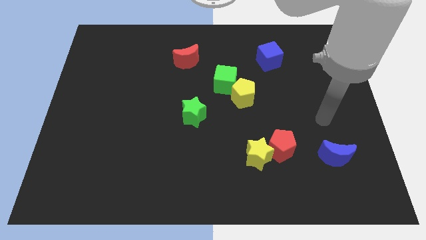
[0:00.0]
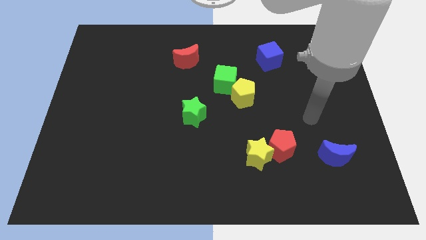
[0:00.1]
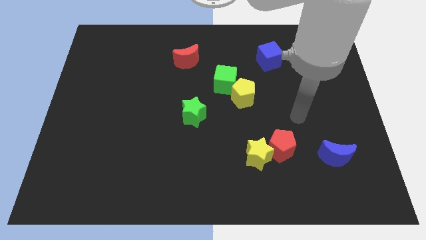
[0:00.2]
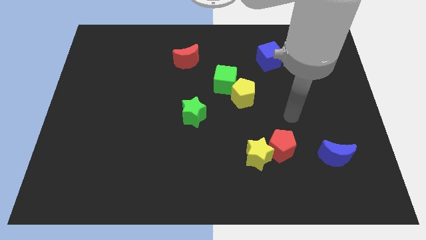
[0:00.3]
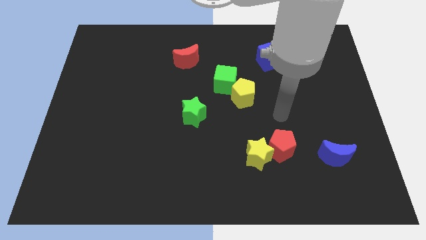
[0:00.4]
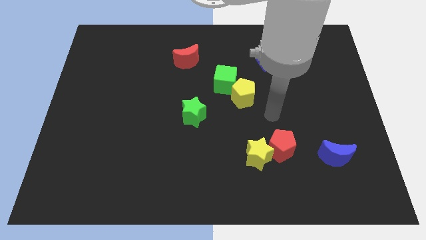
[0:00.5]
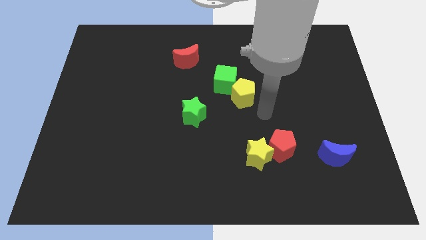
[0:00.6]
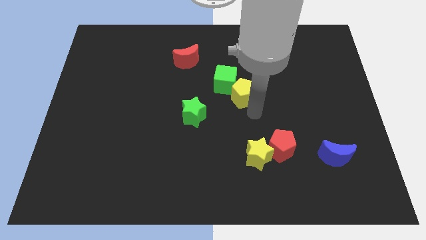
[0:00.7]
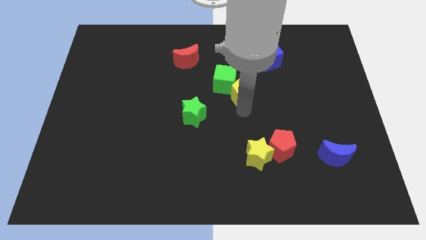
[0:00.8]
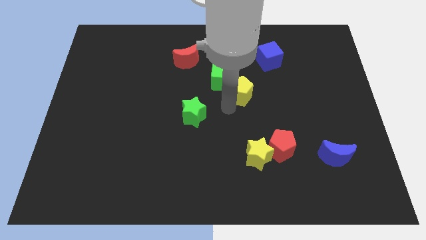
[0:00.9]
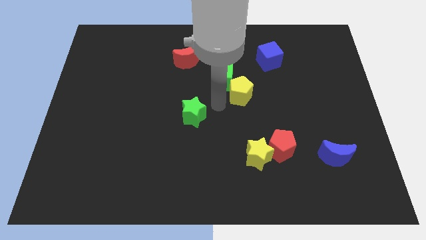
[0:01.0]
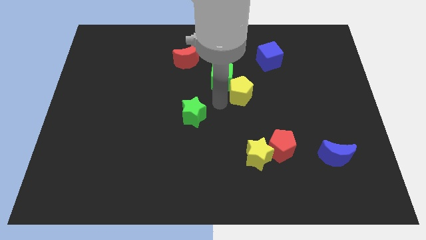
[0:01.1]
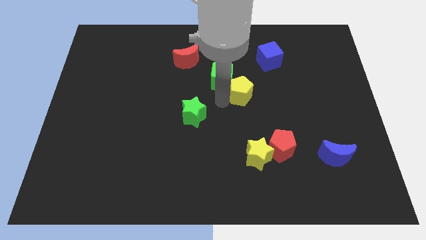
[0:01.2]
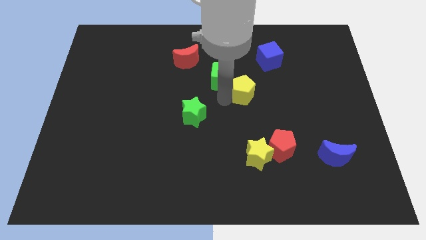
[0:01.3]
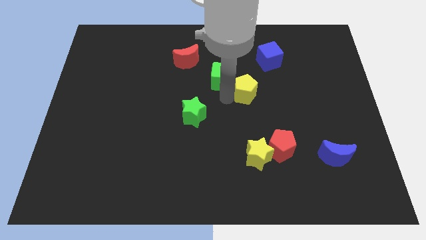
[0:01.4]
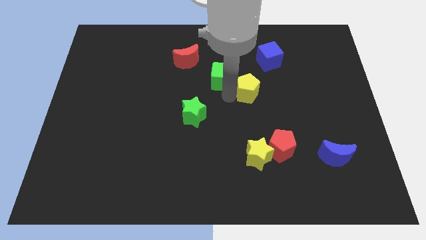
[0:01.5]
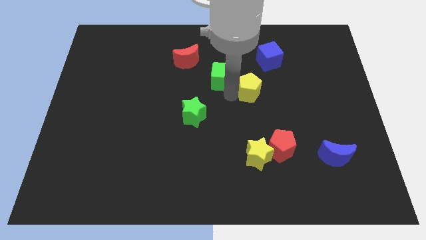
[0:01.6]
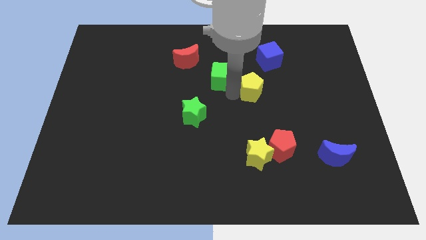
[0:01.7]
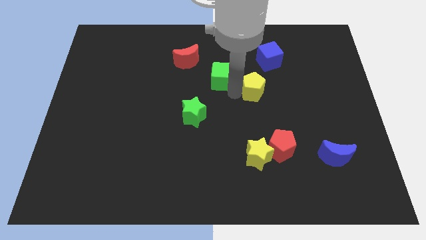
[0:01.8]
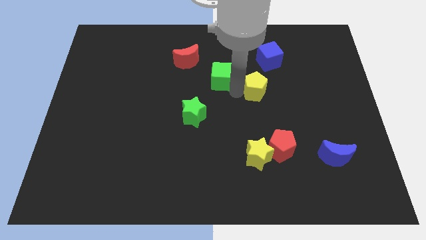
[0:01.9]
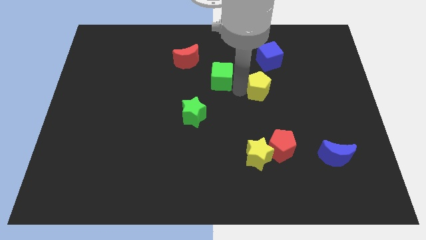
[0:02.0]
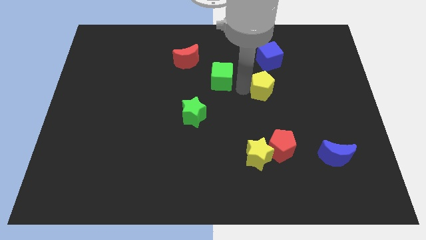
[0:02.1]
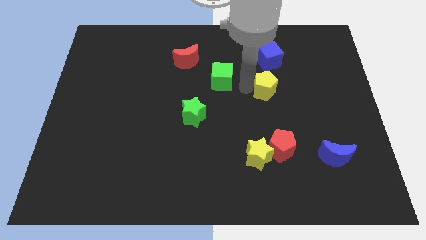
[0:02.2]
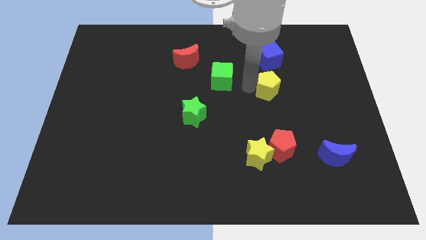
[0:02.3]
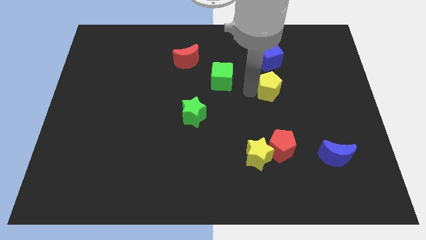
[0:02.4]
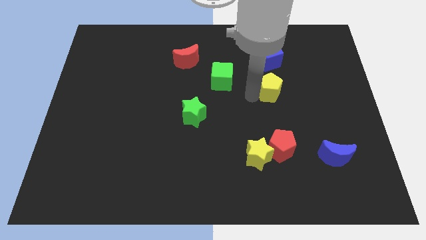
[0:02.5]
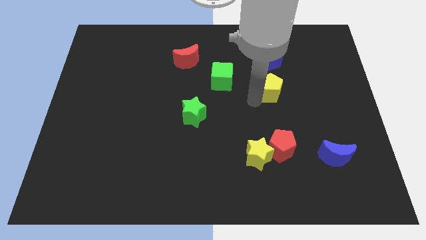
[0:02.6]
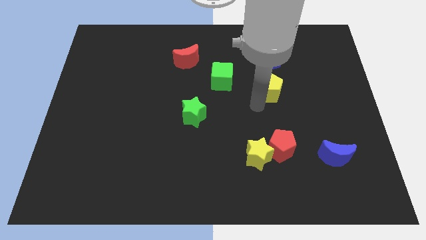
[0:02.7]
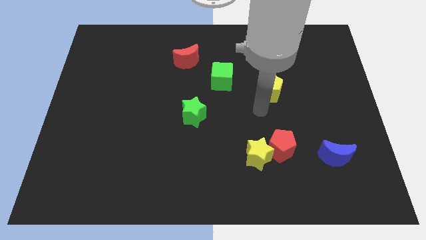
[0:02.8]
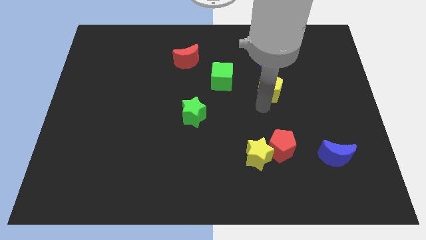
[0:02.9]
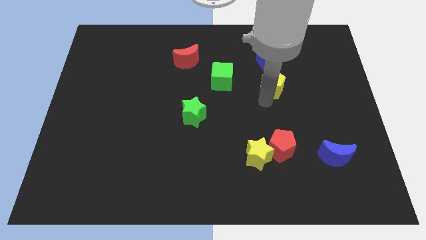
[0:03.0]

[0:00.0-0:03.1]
slide the yellow pentagon a little bit upwards and to the right diagonally

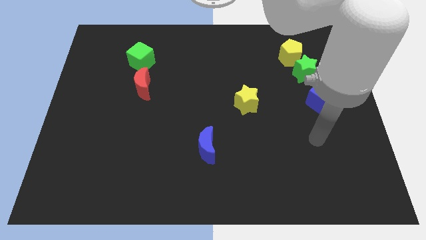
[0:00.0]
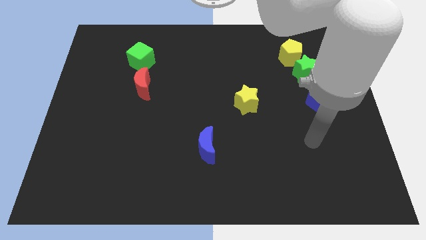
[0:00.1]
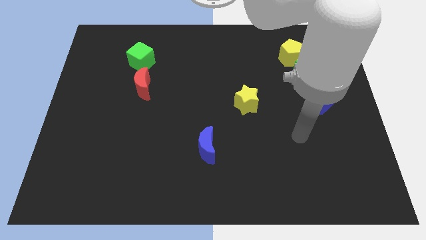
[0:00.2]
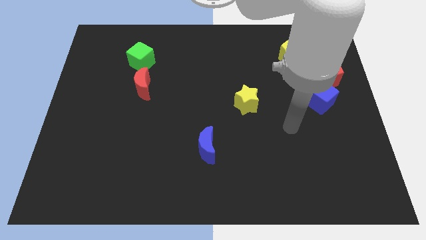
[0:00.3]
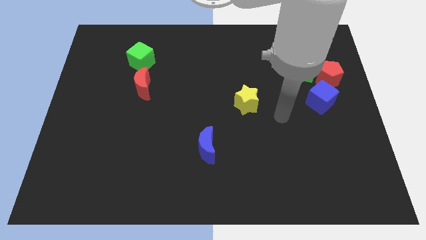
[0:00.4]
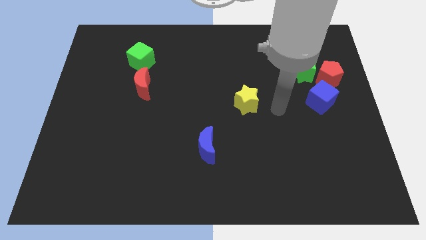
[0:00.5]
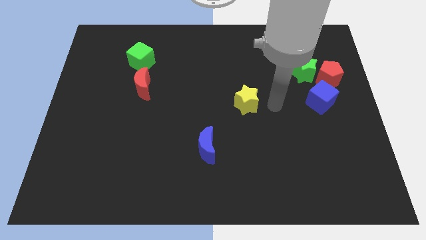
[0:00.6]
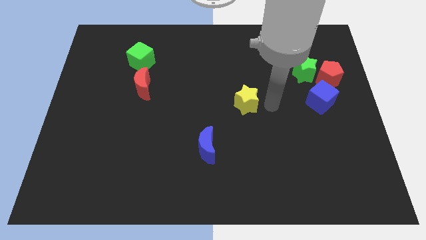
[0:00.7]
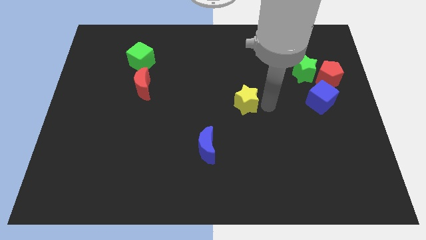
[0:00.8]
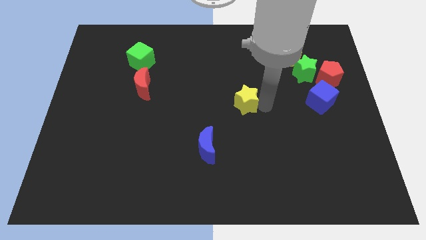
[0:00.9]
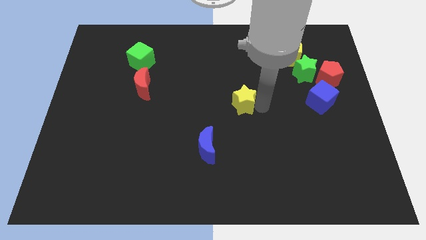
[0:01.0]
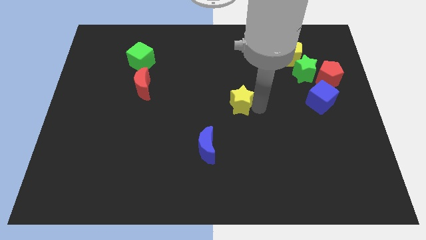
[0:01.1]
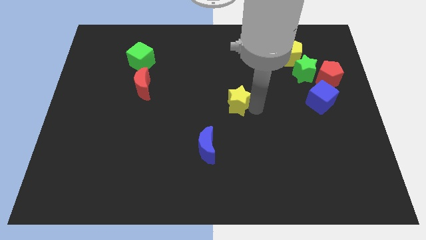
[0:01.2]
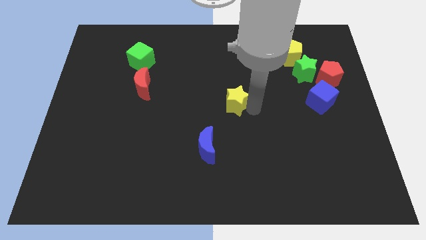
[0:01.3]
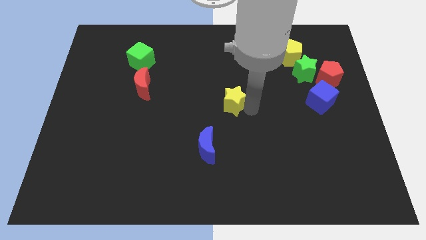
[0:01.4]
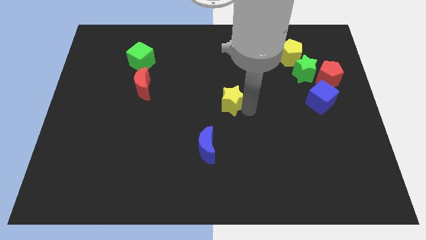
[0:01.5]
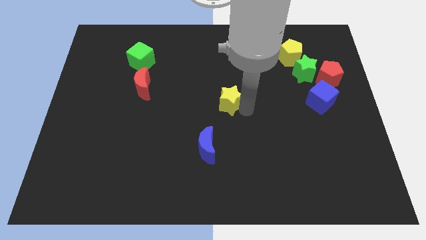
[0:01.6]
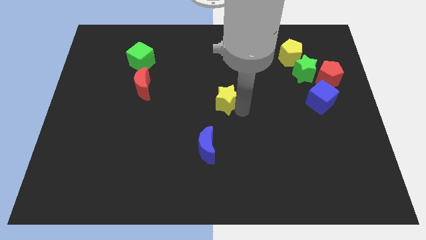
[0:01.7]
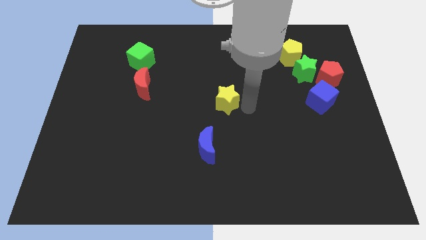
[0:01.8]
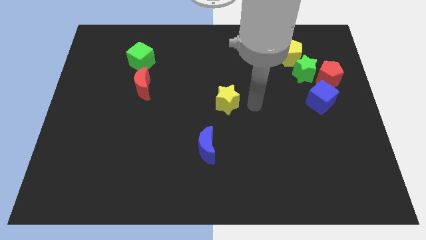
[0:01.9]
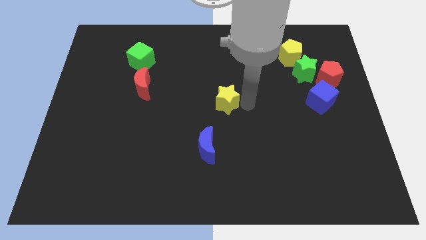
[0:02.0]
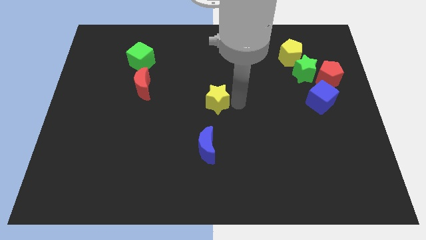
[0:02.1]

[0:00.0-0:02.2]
slide the yellow star left a little bit

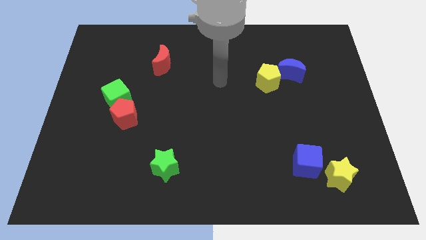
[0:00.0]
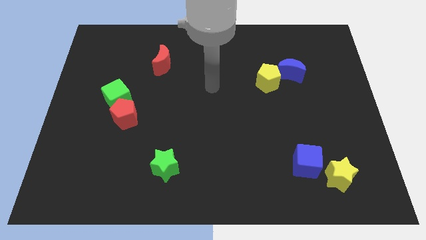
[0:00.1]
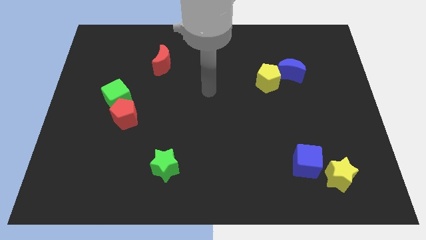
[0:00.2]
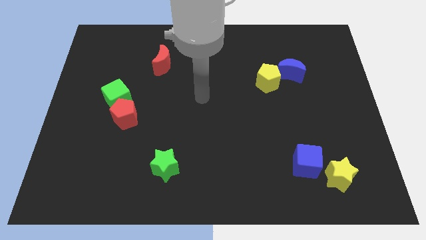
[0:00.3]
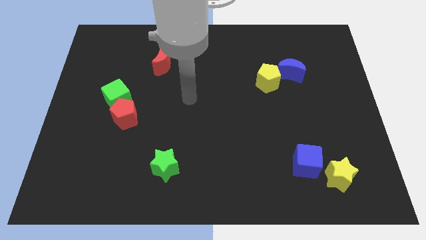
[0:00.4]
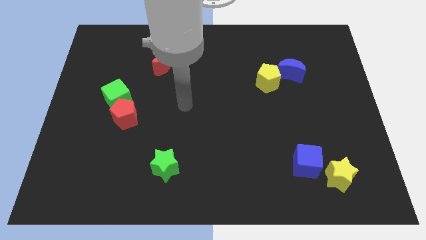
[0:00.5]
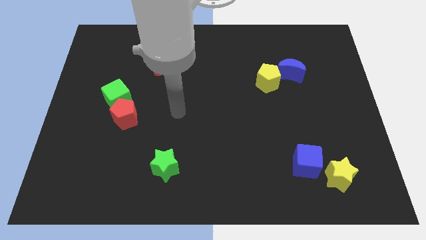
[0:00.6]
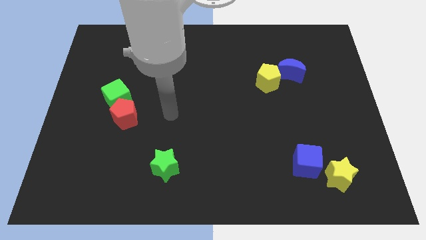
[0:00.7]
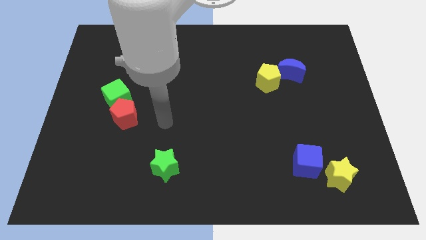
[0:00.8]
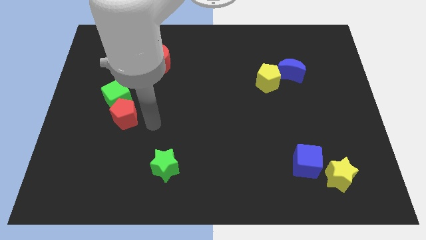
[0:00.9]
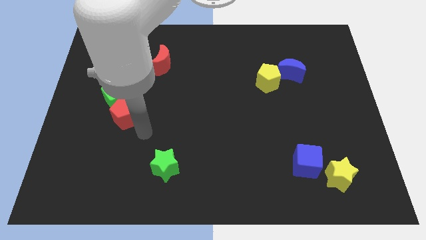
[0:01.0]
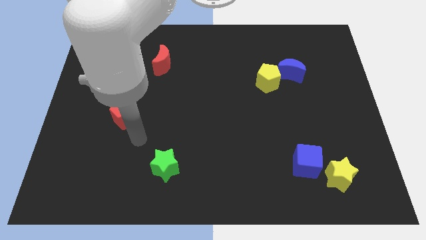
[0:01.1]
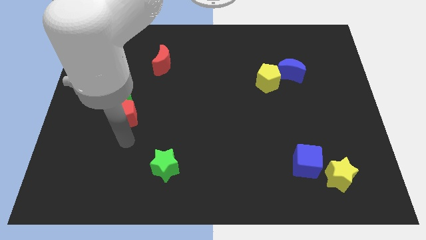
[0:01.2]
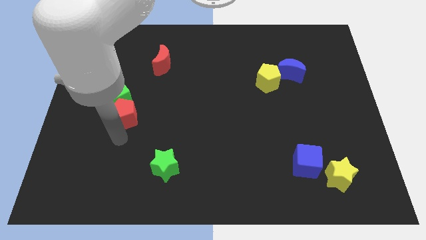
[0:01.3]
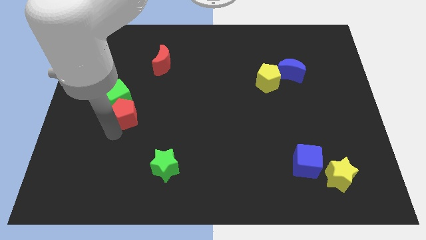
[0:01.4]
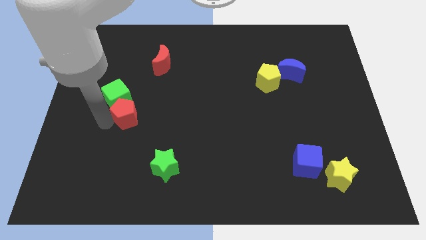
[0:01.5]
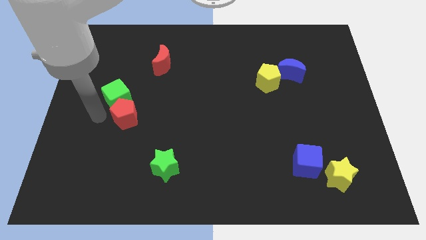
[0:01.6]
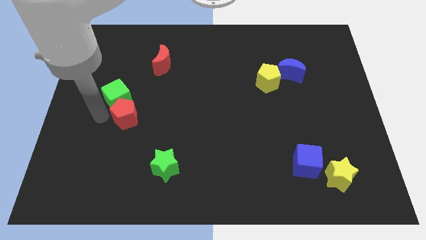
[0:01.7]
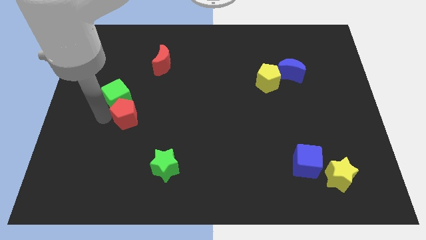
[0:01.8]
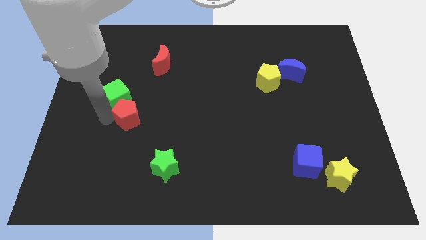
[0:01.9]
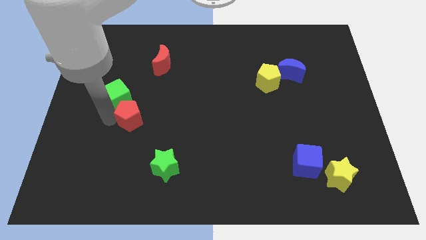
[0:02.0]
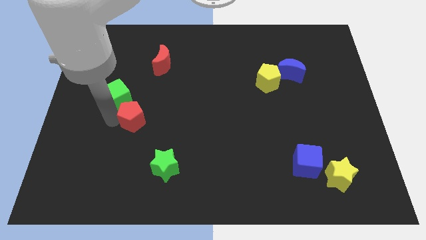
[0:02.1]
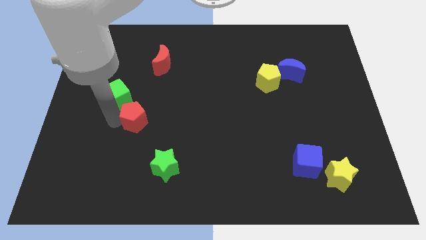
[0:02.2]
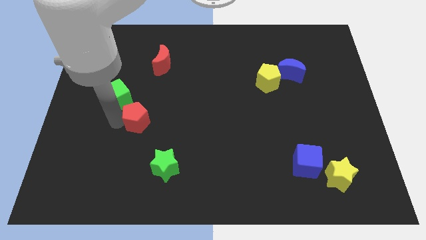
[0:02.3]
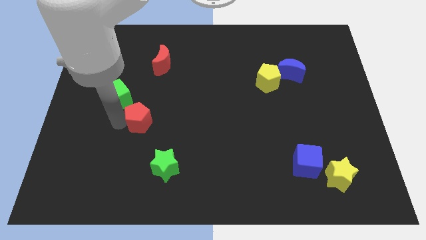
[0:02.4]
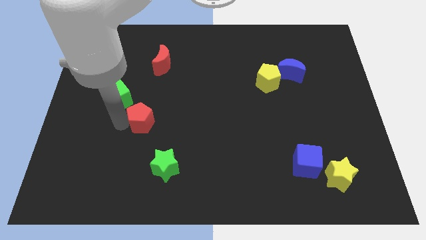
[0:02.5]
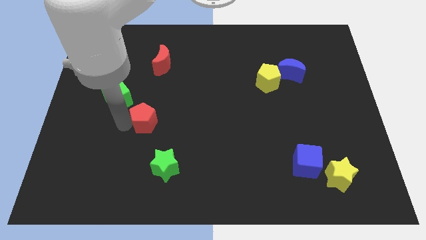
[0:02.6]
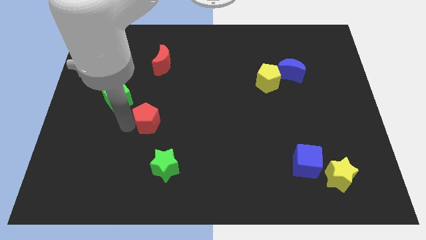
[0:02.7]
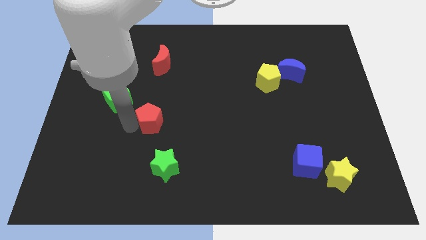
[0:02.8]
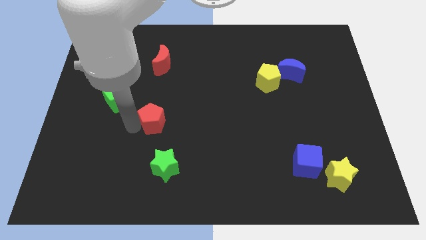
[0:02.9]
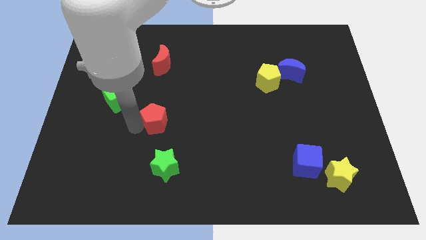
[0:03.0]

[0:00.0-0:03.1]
slide the red pentagon somewhat right
